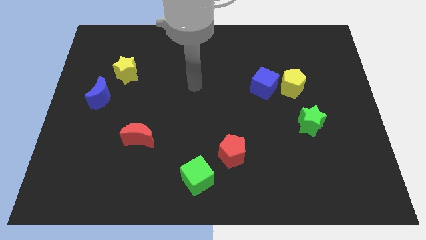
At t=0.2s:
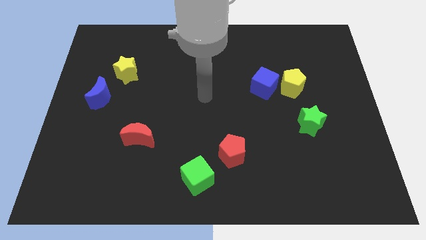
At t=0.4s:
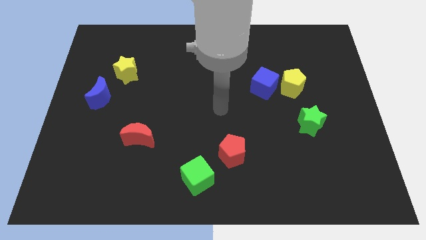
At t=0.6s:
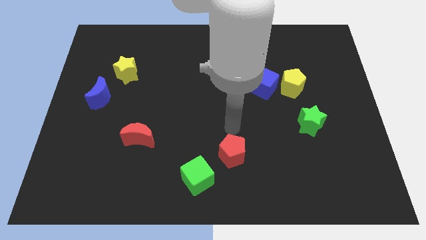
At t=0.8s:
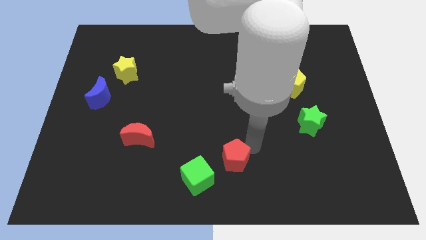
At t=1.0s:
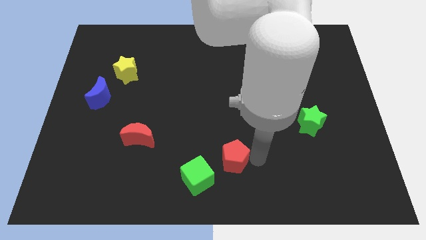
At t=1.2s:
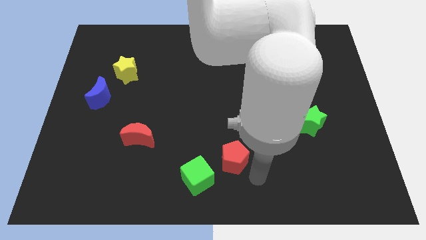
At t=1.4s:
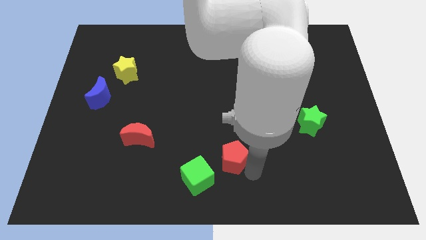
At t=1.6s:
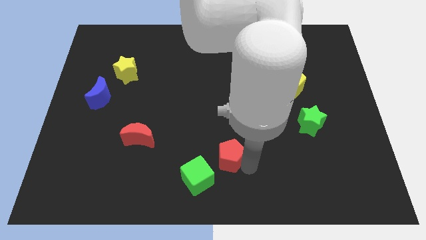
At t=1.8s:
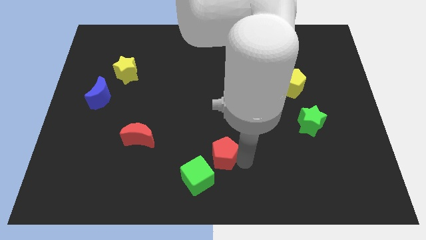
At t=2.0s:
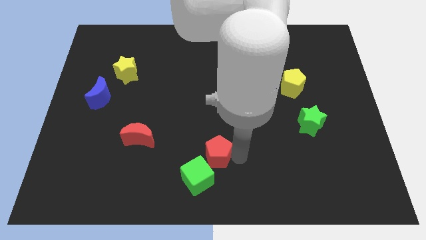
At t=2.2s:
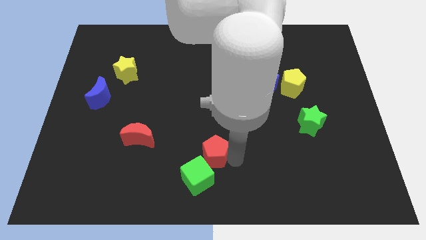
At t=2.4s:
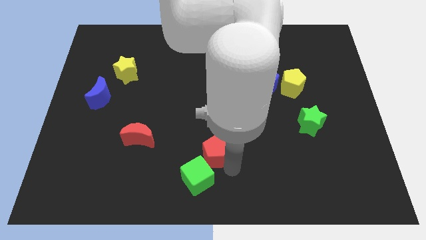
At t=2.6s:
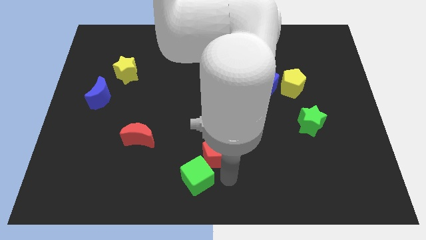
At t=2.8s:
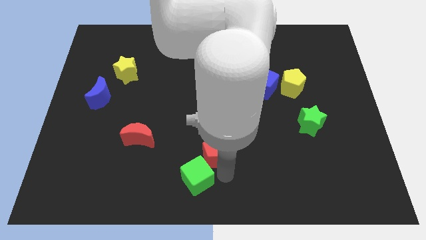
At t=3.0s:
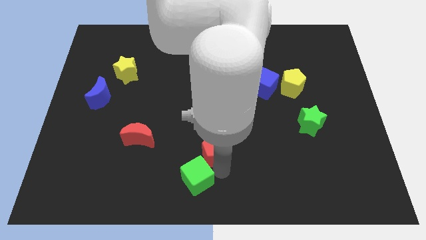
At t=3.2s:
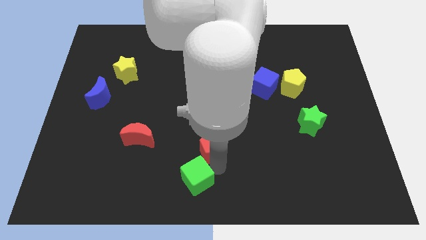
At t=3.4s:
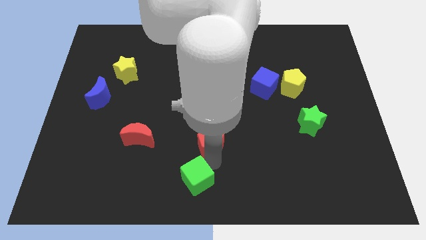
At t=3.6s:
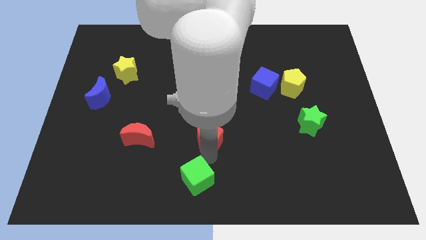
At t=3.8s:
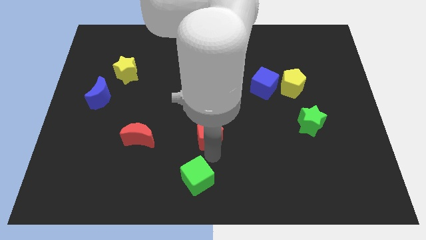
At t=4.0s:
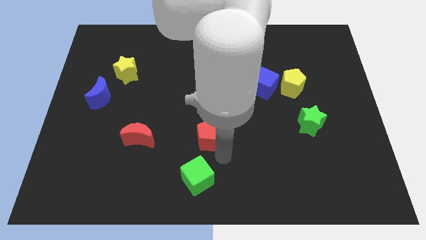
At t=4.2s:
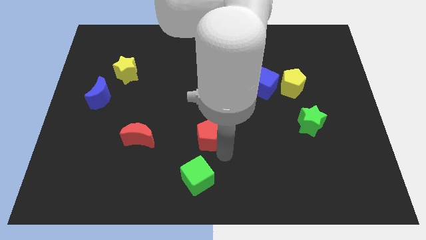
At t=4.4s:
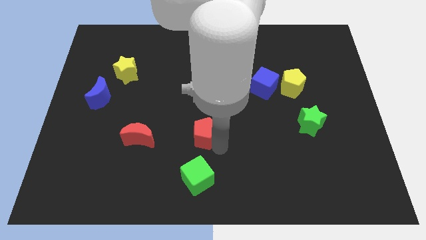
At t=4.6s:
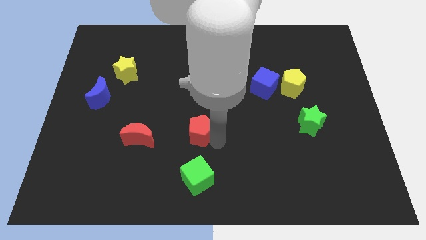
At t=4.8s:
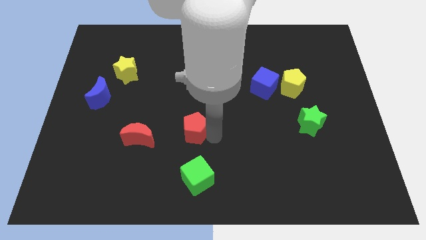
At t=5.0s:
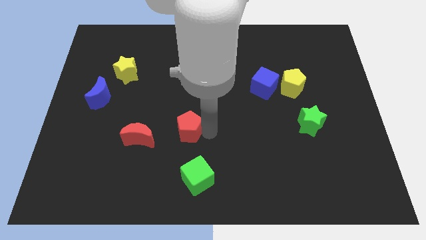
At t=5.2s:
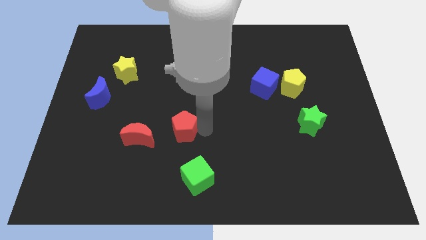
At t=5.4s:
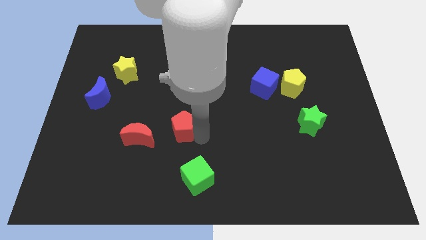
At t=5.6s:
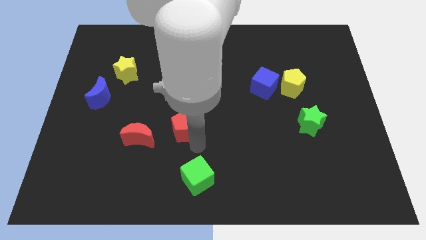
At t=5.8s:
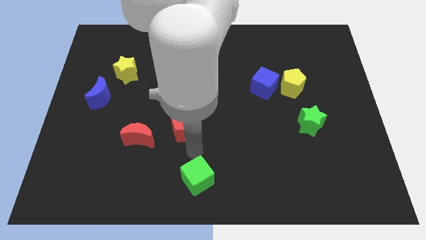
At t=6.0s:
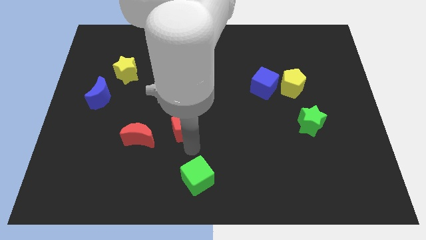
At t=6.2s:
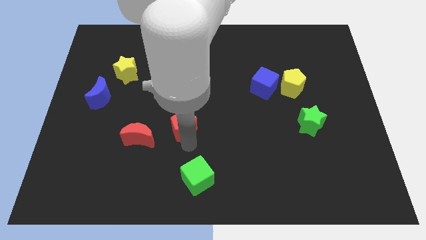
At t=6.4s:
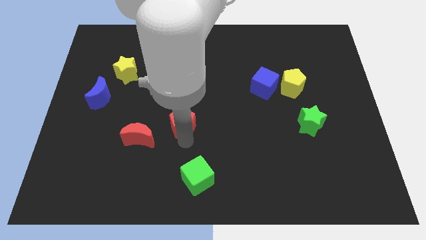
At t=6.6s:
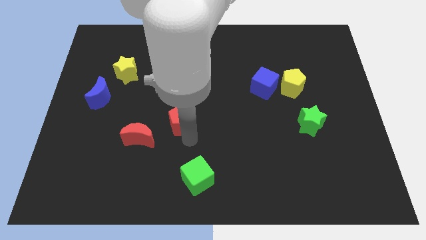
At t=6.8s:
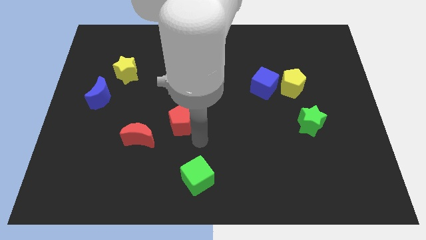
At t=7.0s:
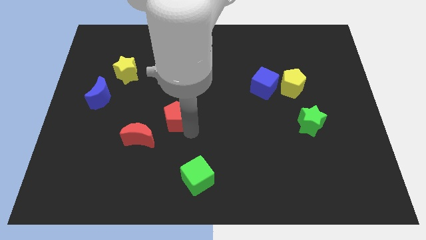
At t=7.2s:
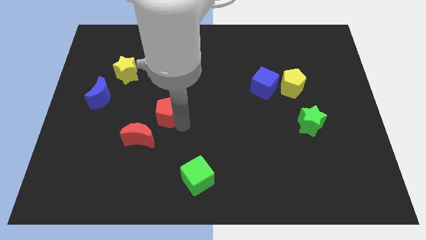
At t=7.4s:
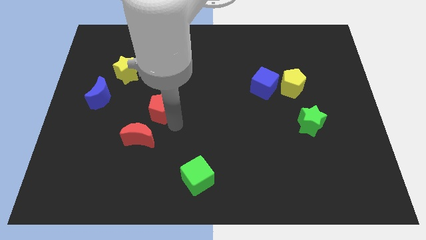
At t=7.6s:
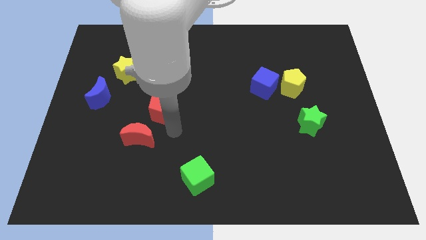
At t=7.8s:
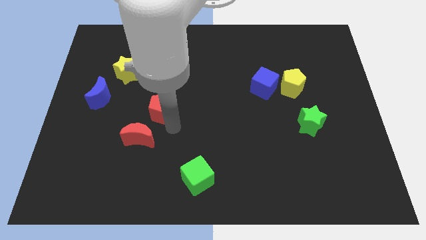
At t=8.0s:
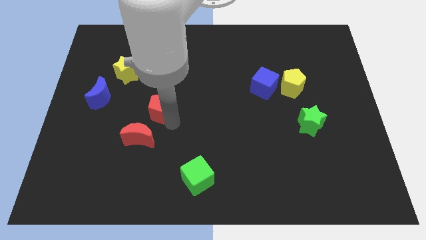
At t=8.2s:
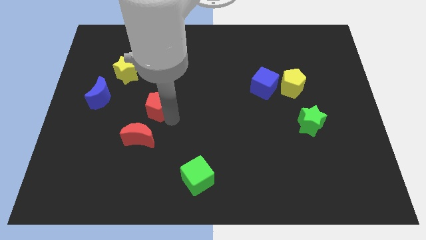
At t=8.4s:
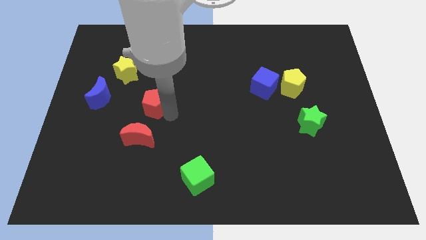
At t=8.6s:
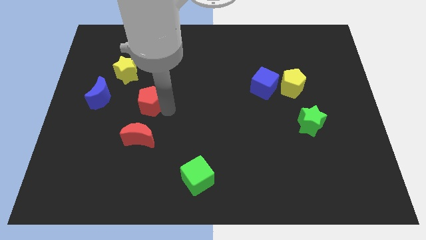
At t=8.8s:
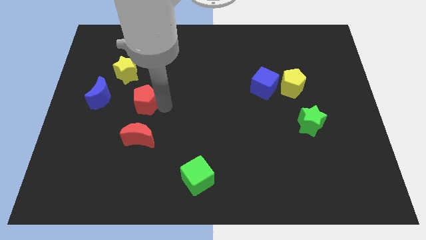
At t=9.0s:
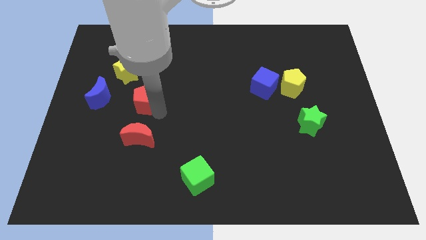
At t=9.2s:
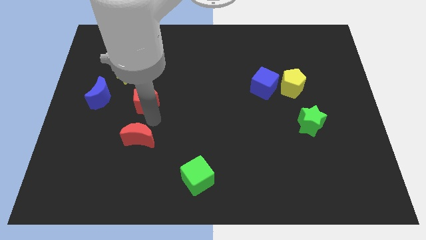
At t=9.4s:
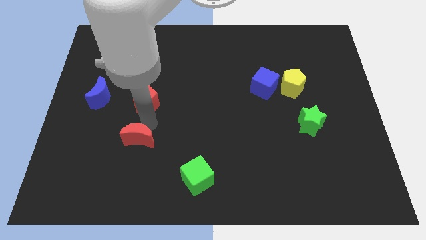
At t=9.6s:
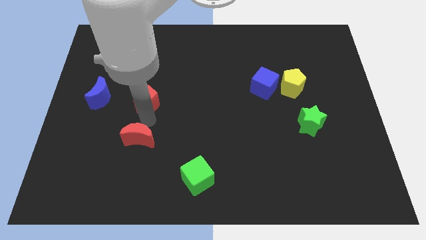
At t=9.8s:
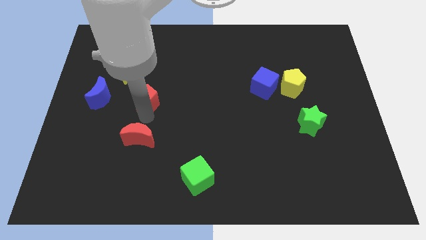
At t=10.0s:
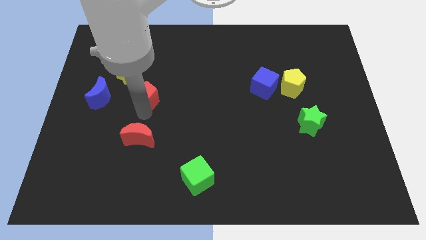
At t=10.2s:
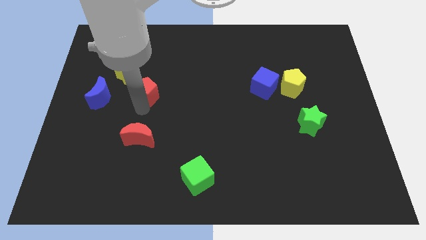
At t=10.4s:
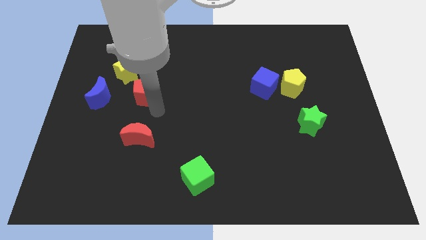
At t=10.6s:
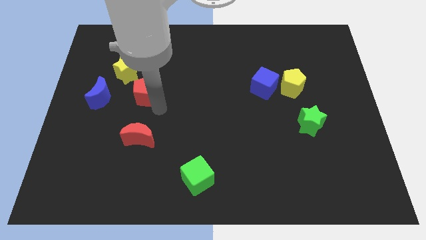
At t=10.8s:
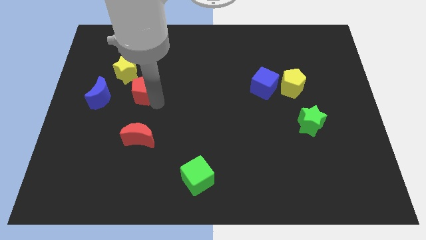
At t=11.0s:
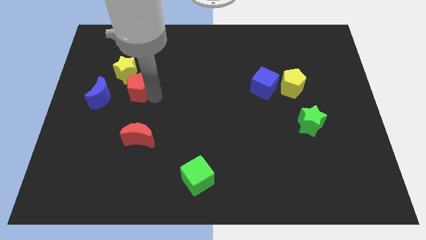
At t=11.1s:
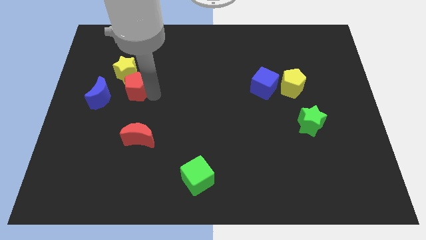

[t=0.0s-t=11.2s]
put the red pentagon towards the yellow star

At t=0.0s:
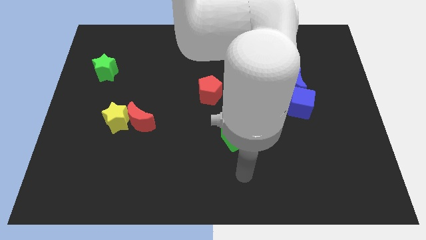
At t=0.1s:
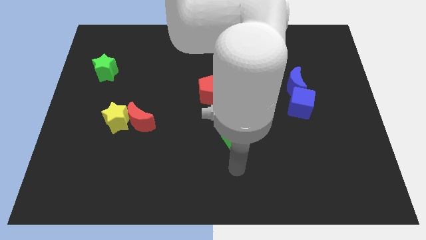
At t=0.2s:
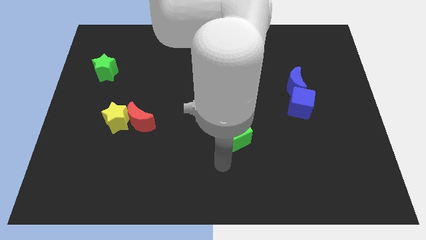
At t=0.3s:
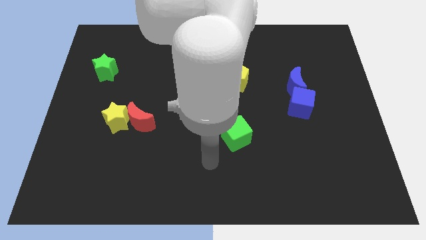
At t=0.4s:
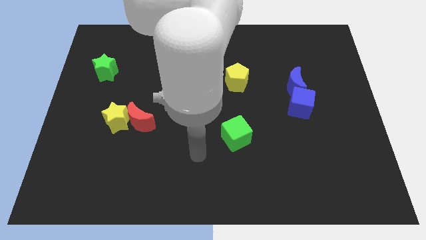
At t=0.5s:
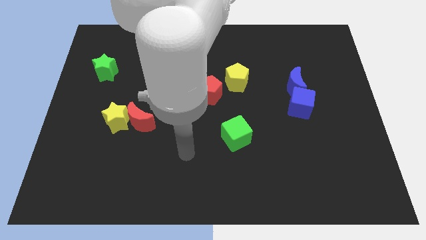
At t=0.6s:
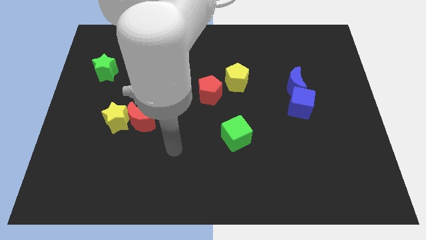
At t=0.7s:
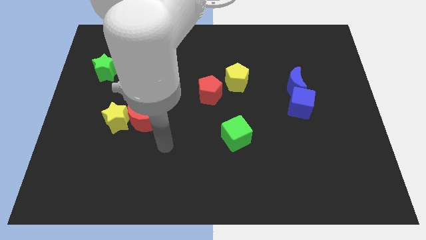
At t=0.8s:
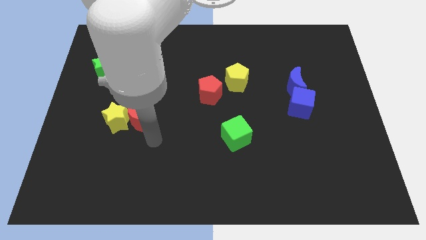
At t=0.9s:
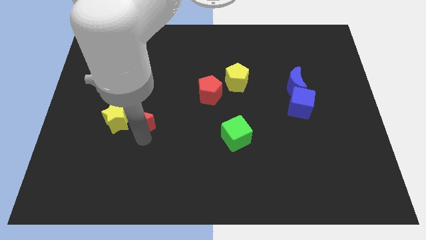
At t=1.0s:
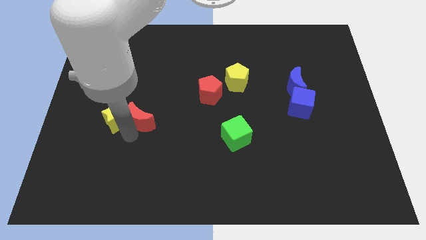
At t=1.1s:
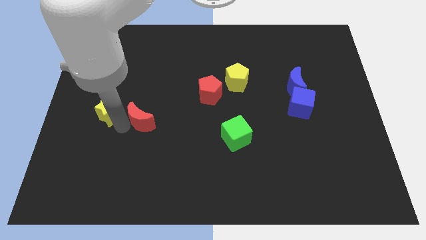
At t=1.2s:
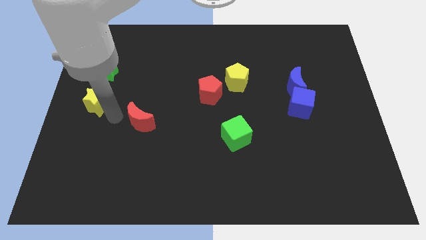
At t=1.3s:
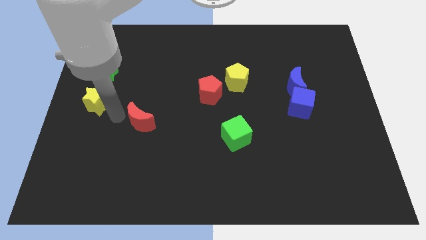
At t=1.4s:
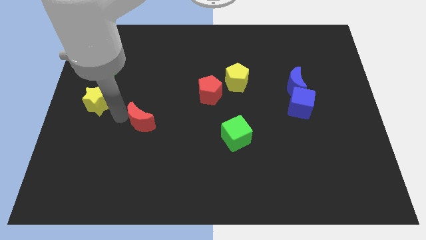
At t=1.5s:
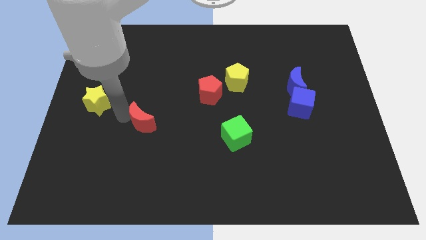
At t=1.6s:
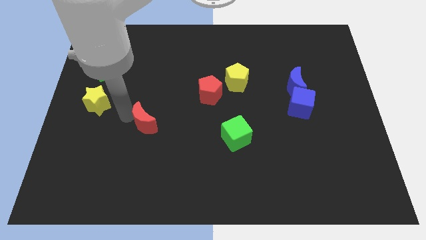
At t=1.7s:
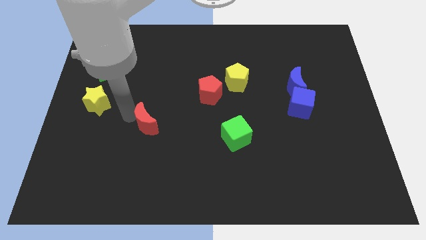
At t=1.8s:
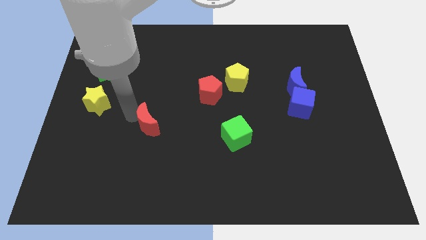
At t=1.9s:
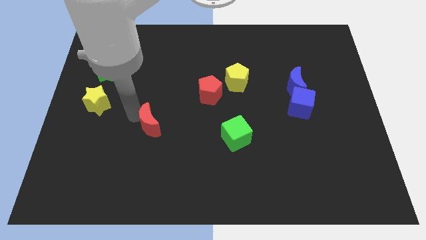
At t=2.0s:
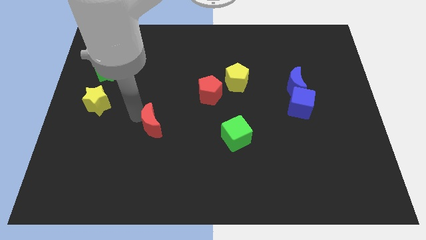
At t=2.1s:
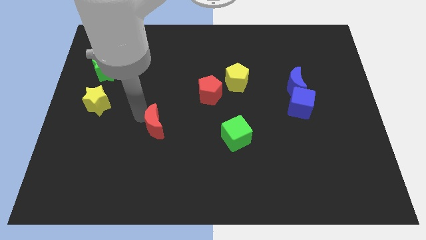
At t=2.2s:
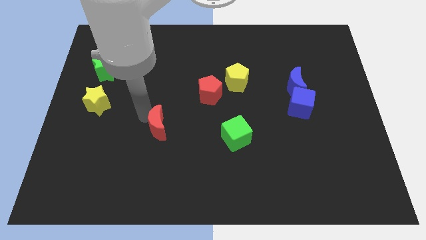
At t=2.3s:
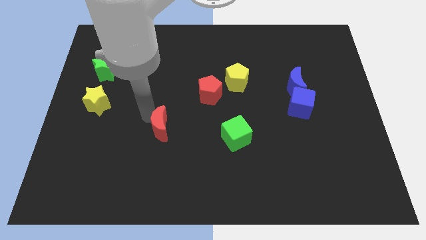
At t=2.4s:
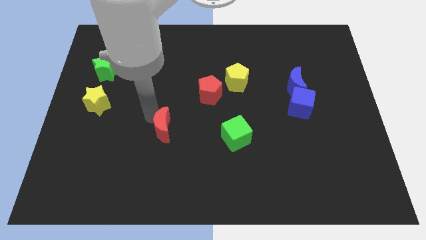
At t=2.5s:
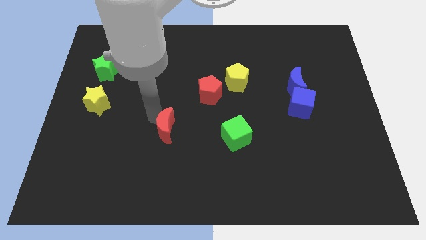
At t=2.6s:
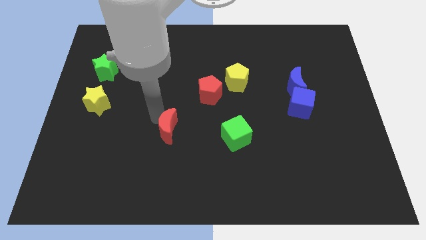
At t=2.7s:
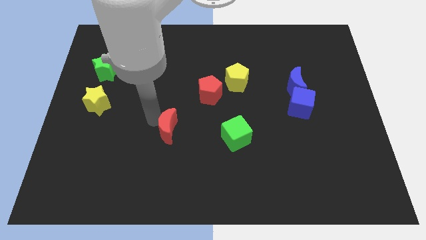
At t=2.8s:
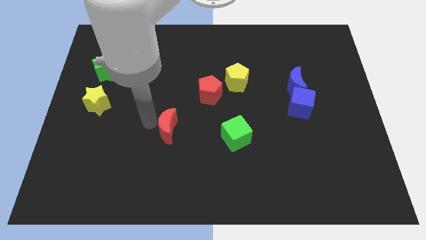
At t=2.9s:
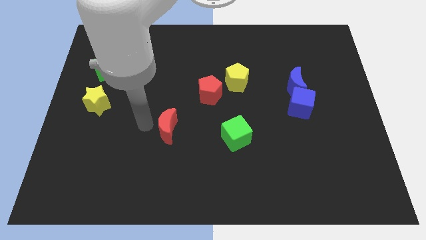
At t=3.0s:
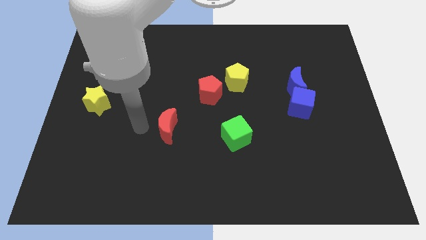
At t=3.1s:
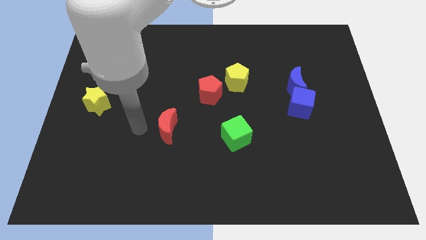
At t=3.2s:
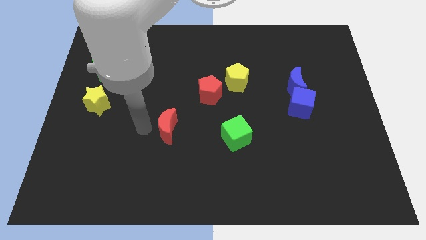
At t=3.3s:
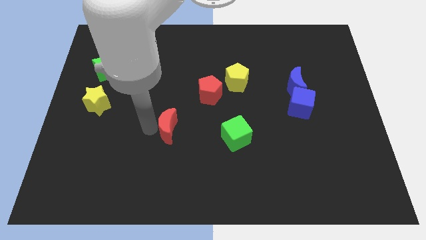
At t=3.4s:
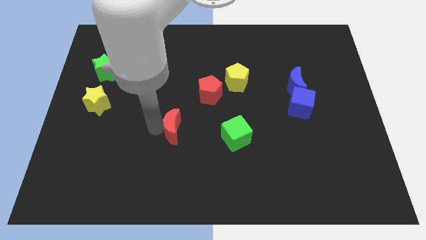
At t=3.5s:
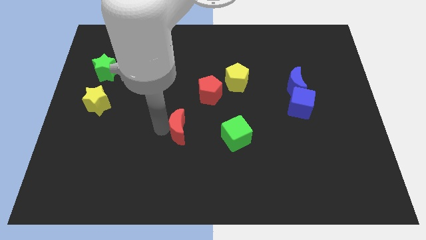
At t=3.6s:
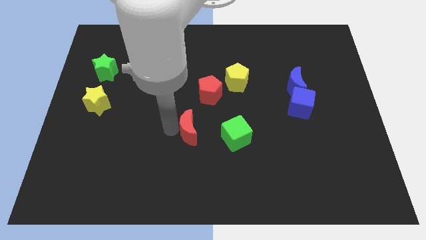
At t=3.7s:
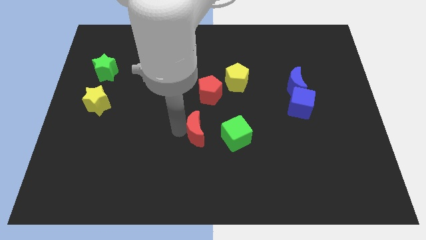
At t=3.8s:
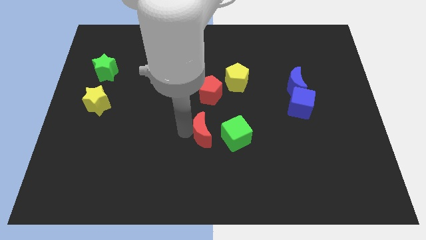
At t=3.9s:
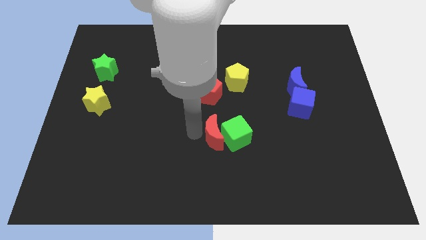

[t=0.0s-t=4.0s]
move the red moon to the green cube
